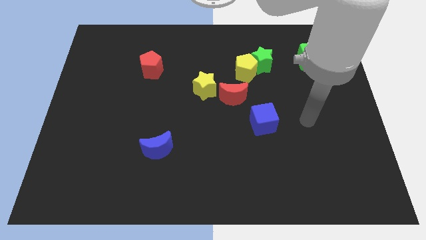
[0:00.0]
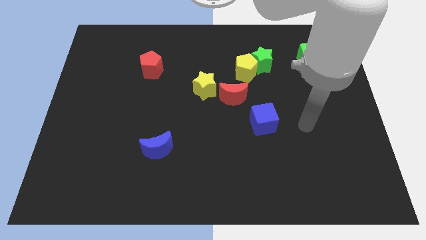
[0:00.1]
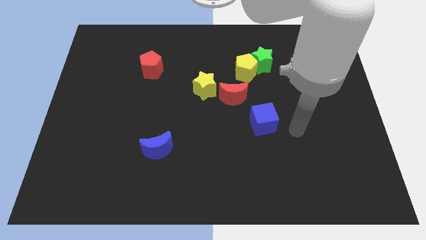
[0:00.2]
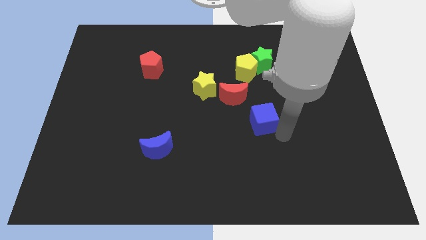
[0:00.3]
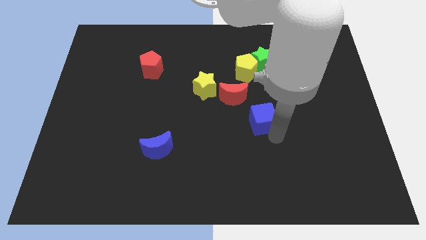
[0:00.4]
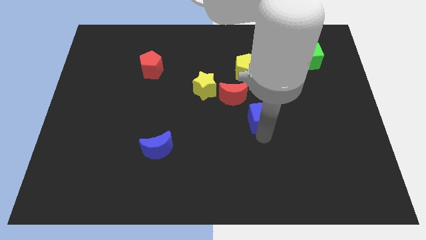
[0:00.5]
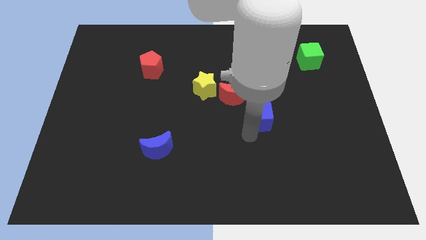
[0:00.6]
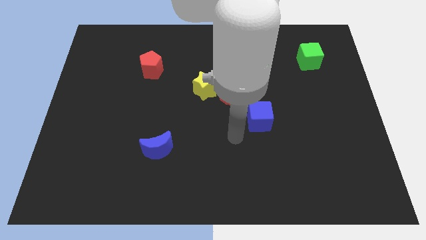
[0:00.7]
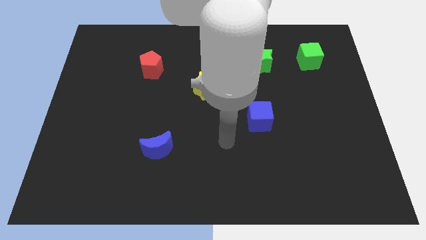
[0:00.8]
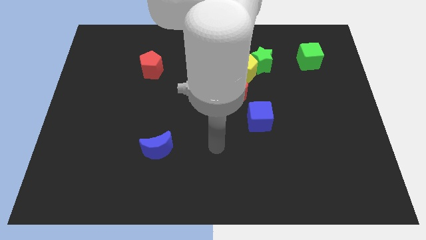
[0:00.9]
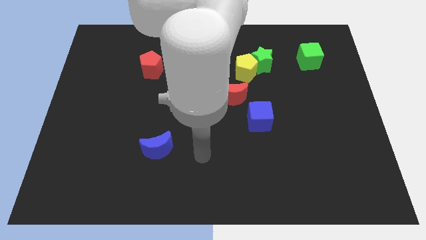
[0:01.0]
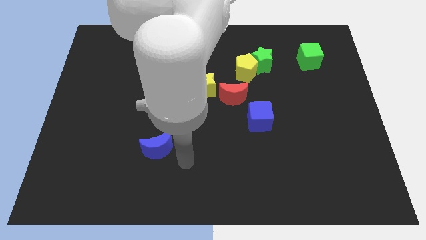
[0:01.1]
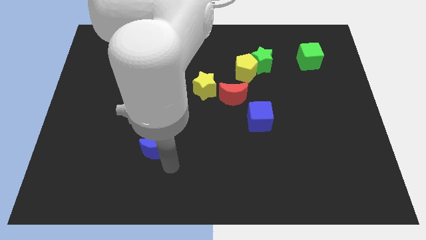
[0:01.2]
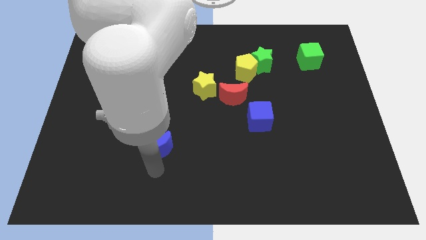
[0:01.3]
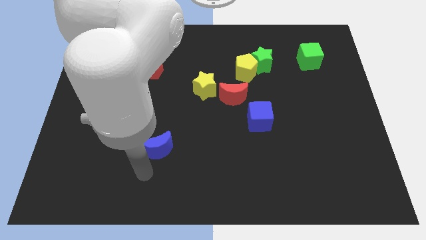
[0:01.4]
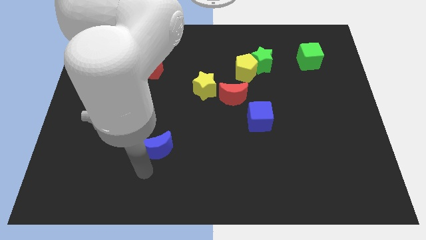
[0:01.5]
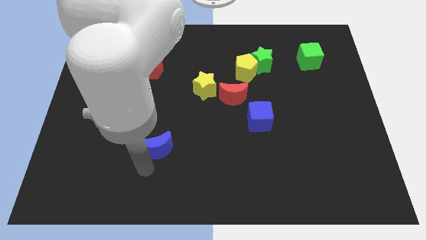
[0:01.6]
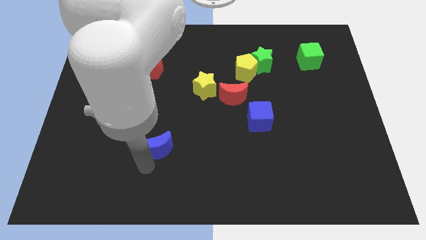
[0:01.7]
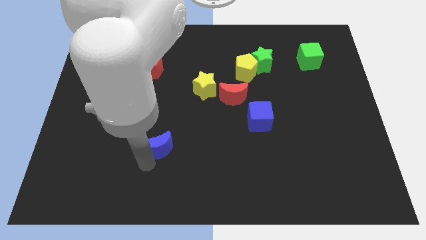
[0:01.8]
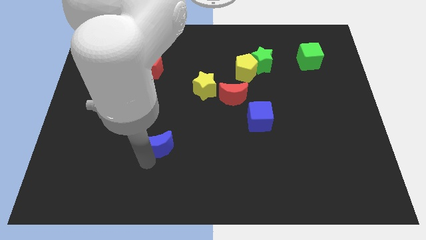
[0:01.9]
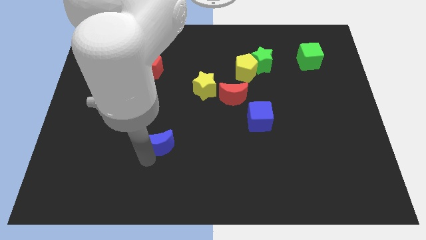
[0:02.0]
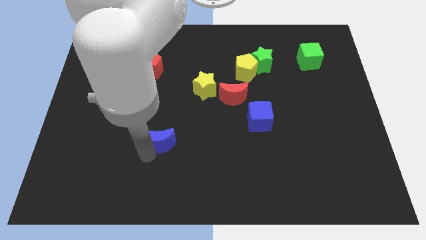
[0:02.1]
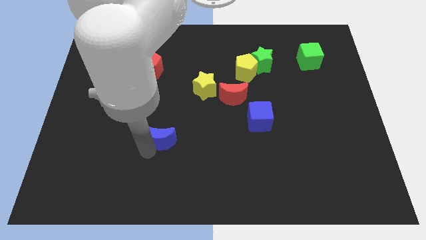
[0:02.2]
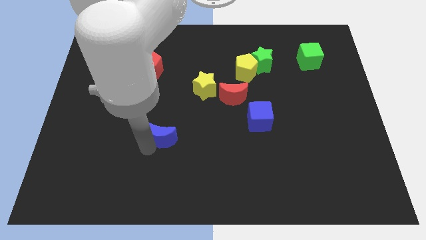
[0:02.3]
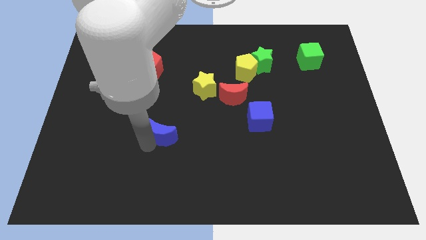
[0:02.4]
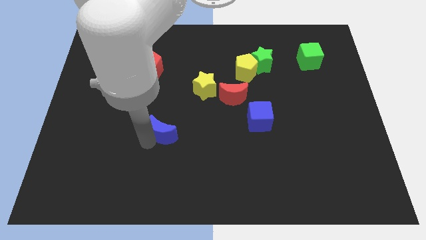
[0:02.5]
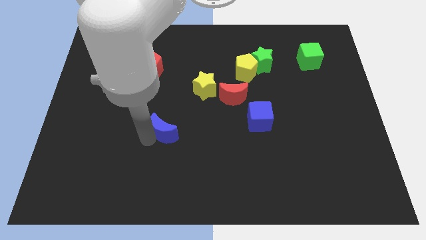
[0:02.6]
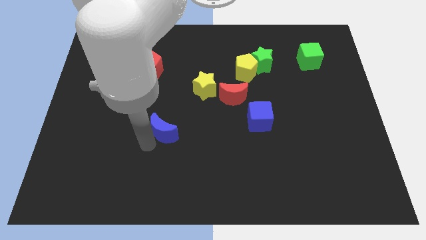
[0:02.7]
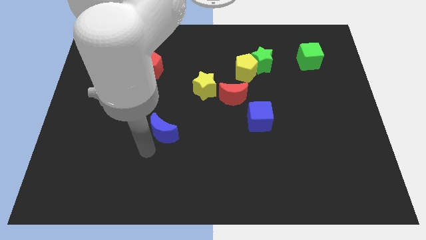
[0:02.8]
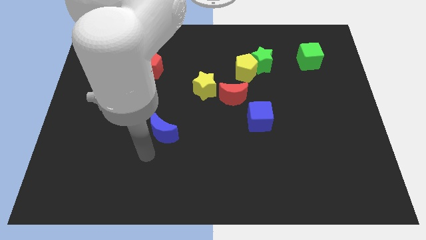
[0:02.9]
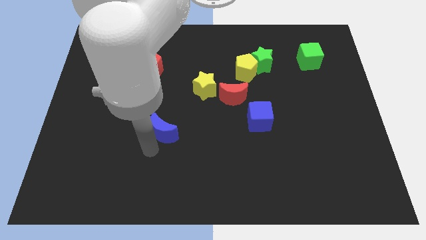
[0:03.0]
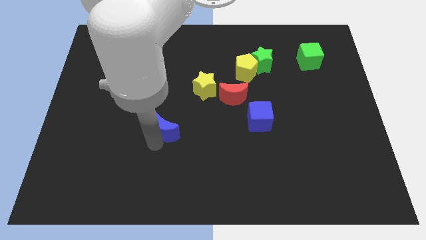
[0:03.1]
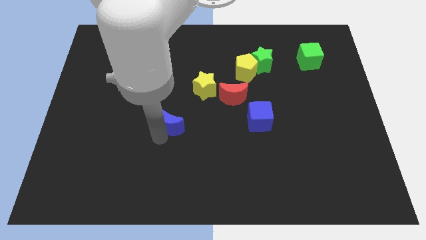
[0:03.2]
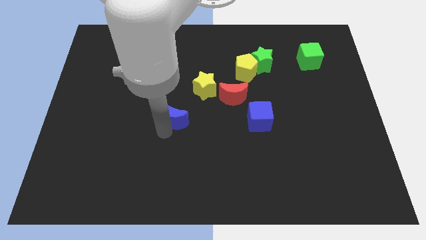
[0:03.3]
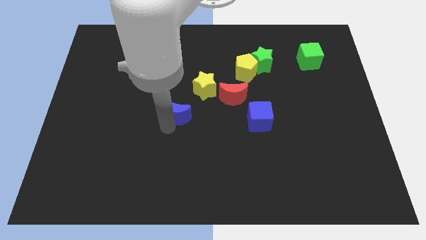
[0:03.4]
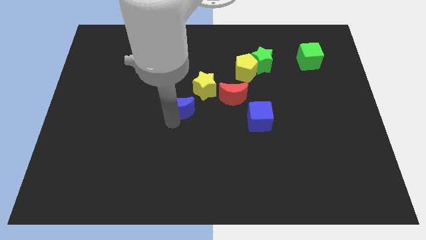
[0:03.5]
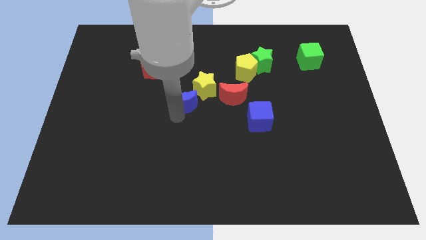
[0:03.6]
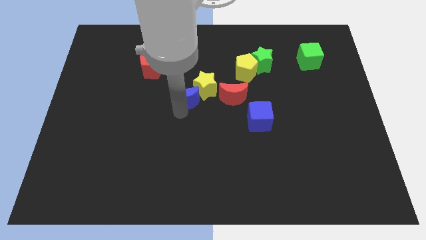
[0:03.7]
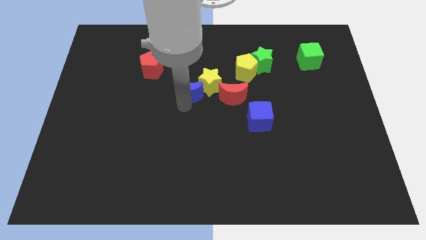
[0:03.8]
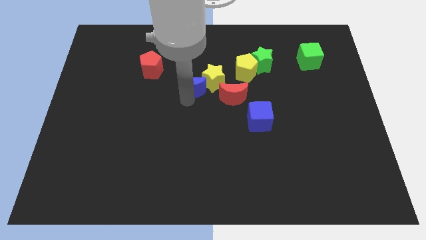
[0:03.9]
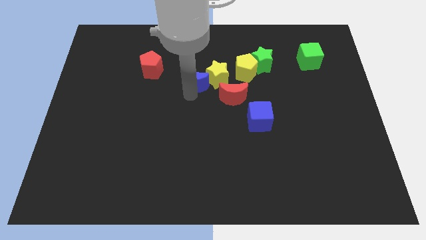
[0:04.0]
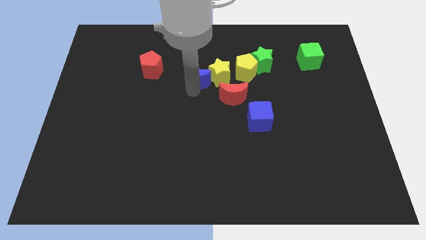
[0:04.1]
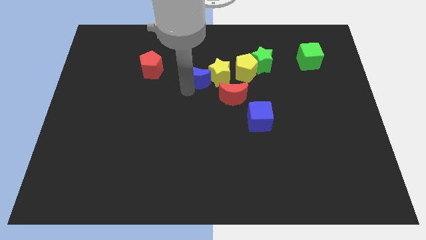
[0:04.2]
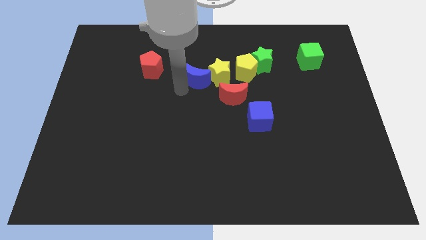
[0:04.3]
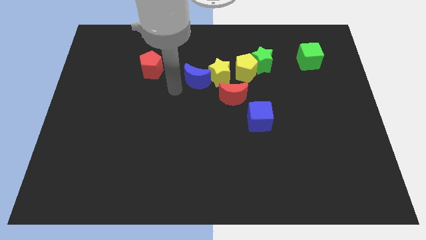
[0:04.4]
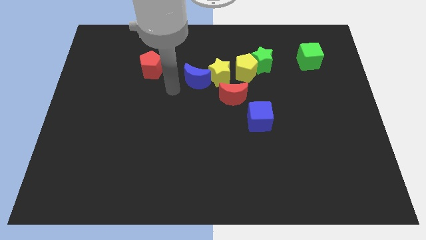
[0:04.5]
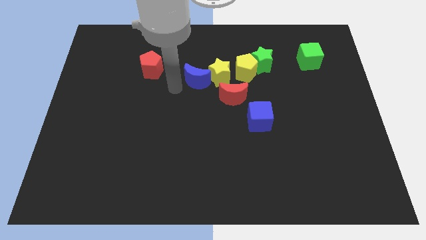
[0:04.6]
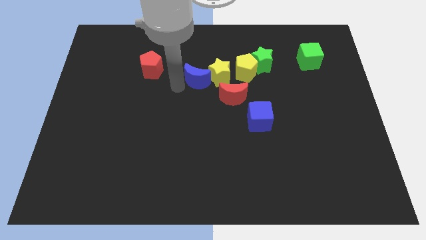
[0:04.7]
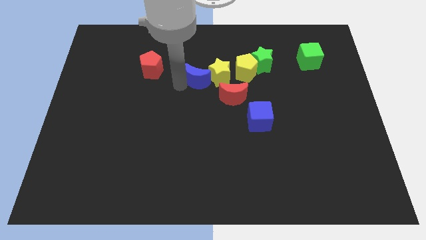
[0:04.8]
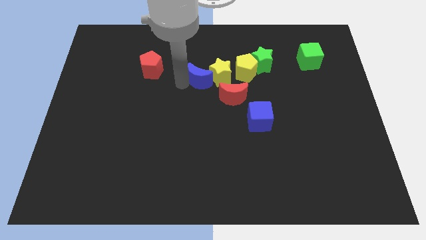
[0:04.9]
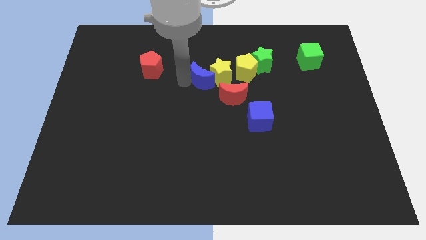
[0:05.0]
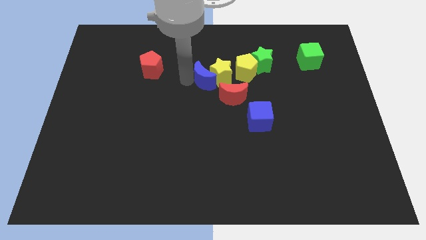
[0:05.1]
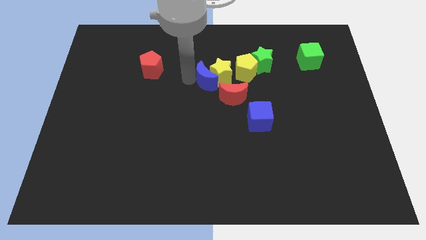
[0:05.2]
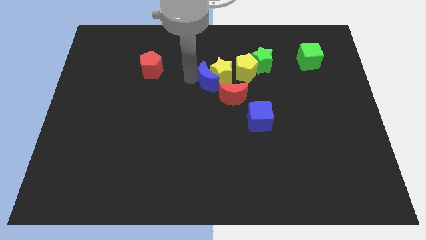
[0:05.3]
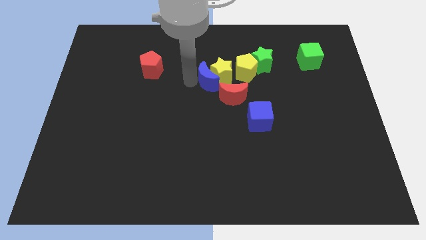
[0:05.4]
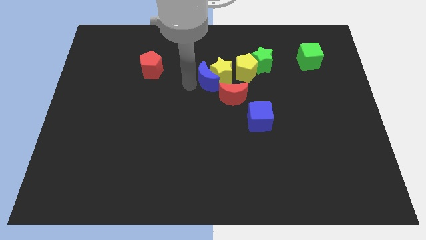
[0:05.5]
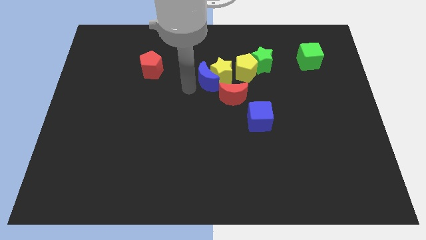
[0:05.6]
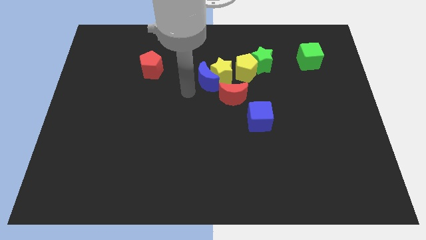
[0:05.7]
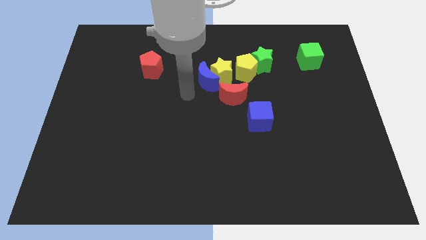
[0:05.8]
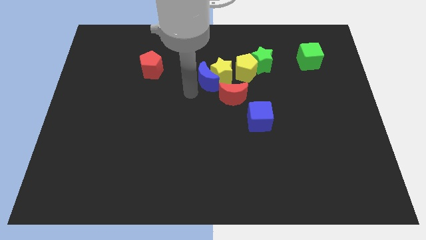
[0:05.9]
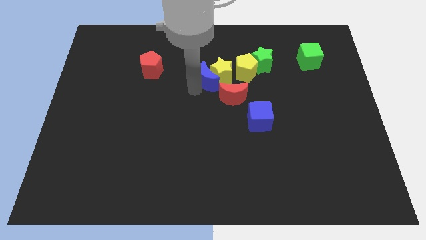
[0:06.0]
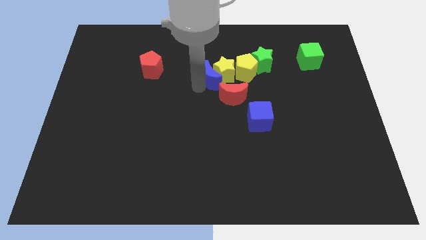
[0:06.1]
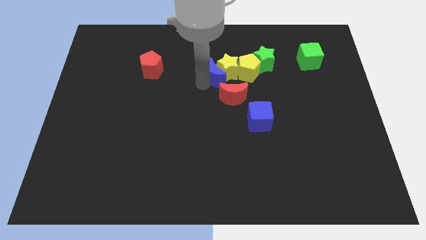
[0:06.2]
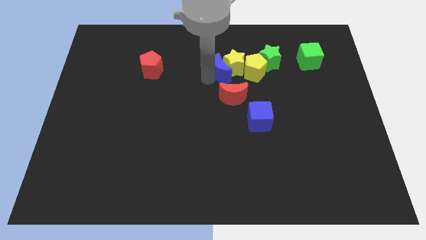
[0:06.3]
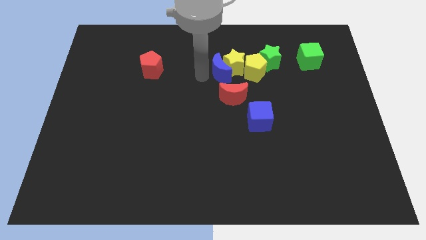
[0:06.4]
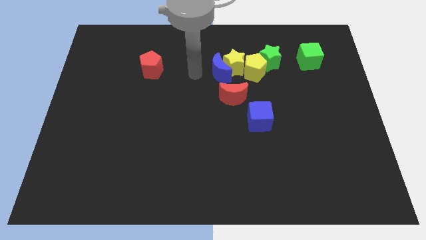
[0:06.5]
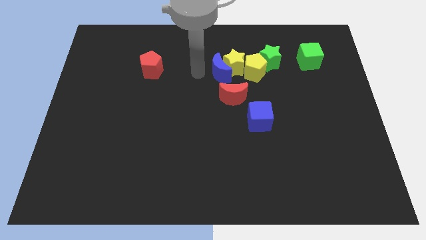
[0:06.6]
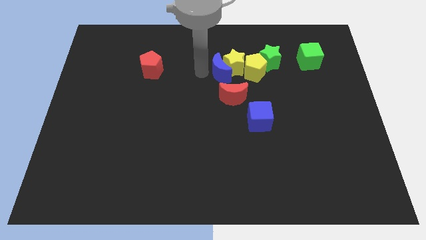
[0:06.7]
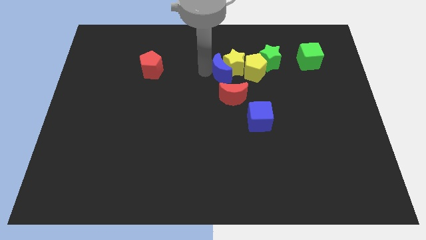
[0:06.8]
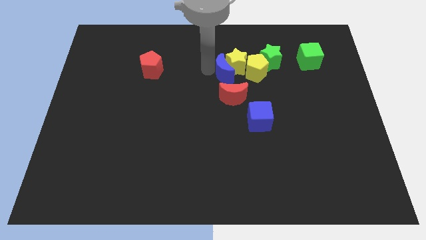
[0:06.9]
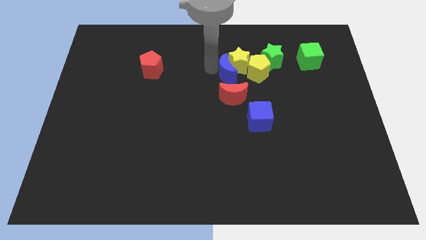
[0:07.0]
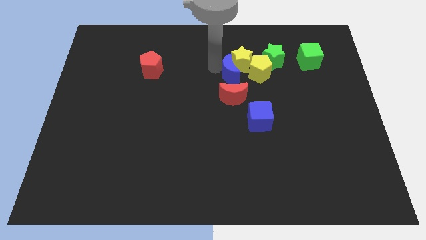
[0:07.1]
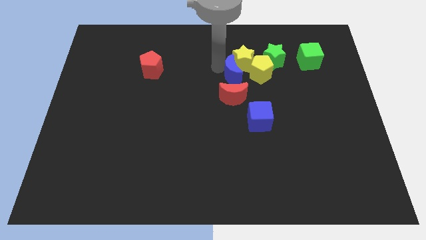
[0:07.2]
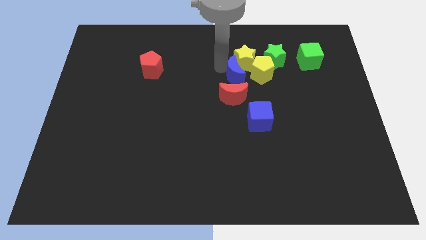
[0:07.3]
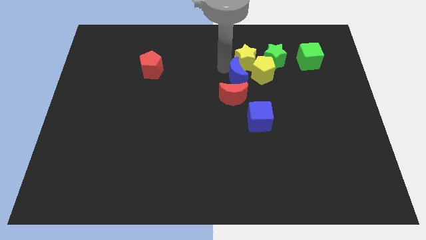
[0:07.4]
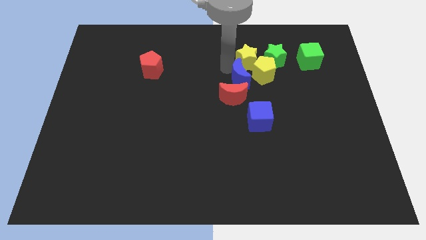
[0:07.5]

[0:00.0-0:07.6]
put the blue moon next to the yellow pentagon
